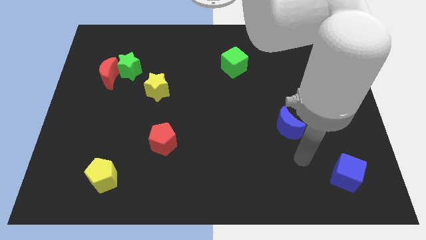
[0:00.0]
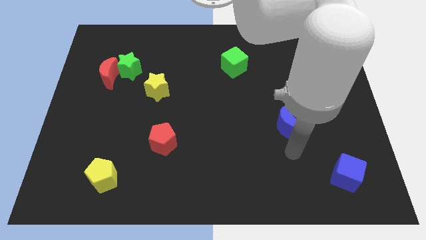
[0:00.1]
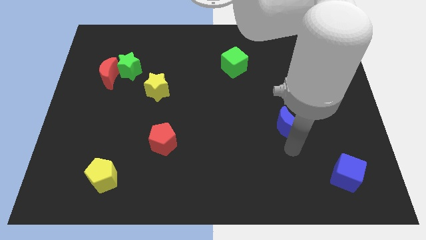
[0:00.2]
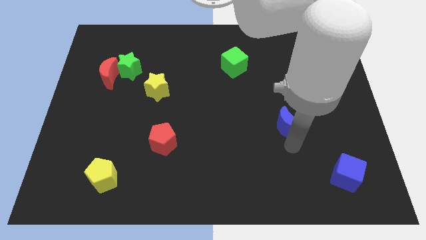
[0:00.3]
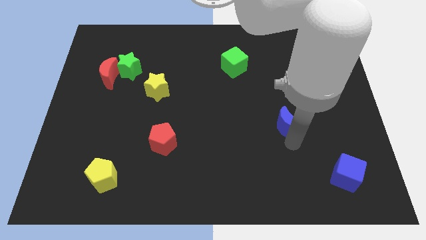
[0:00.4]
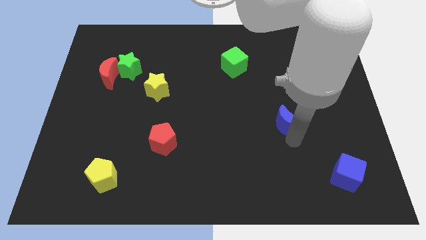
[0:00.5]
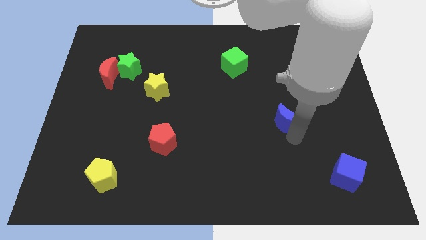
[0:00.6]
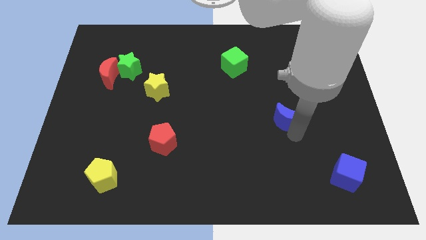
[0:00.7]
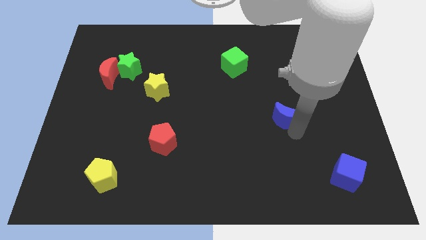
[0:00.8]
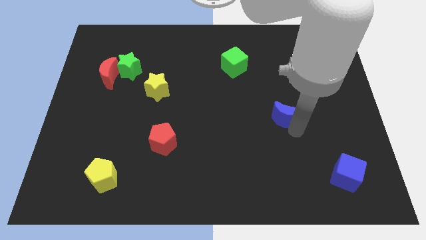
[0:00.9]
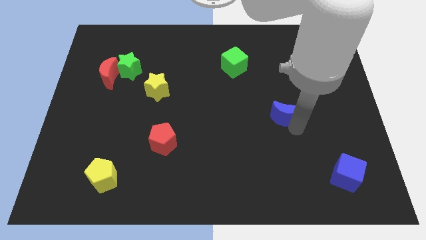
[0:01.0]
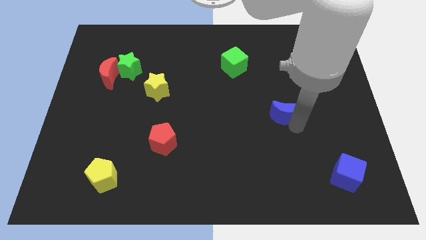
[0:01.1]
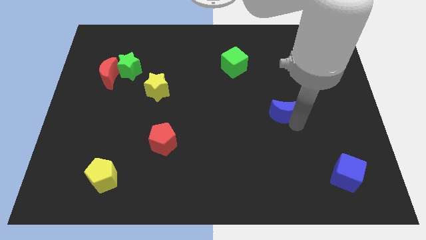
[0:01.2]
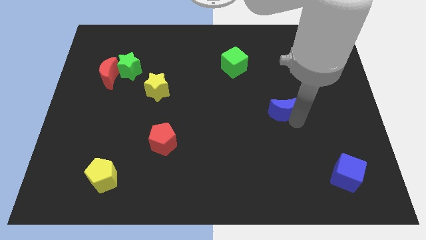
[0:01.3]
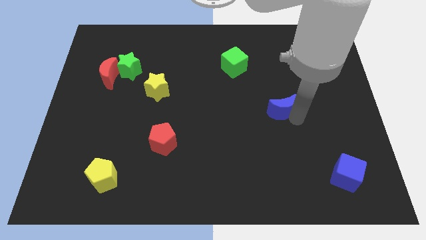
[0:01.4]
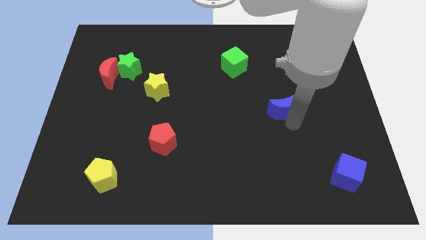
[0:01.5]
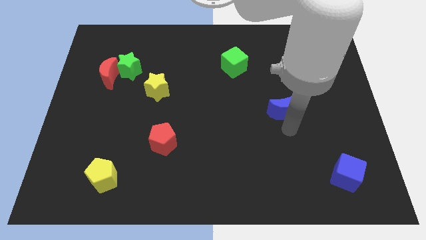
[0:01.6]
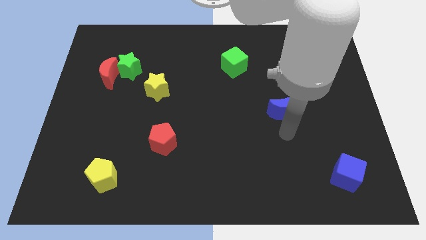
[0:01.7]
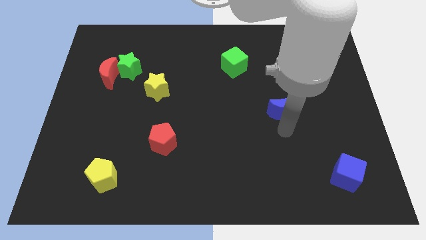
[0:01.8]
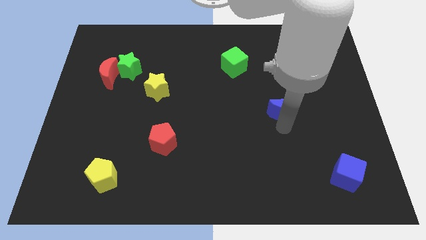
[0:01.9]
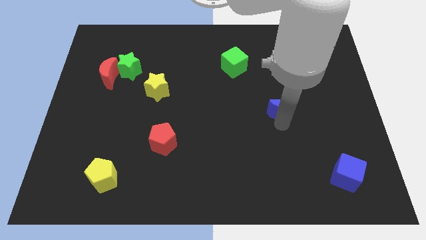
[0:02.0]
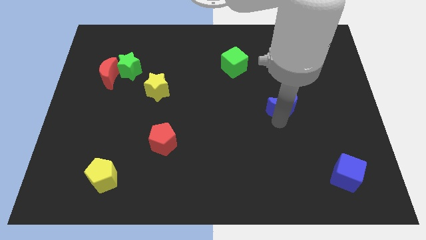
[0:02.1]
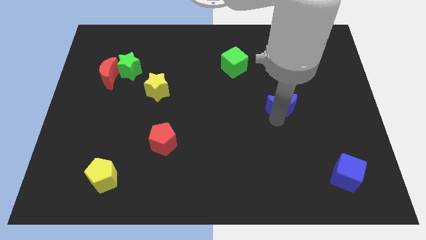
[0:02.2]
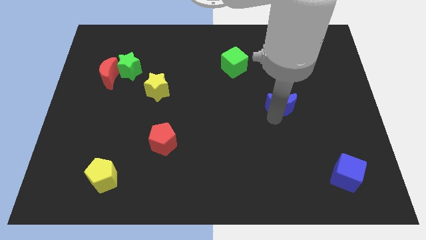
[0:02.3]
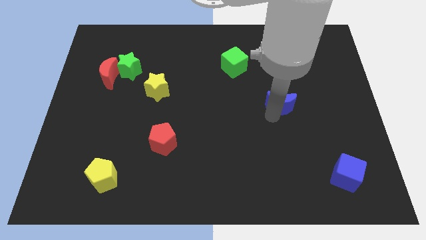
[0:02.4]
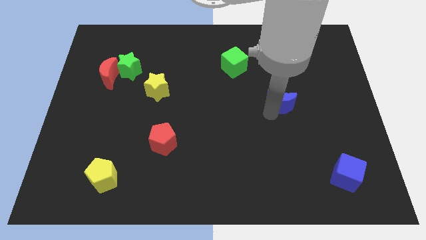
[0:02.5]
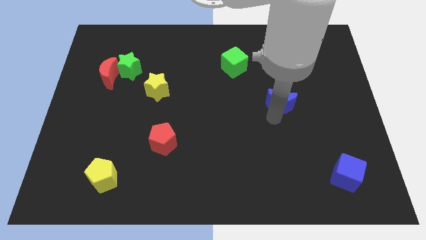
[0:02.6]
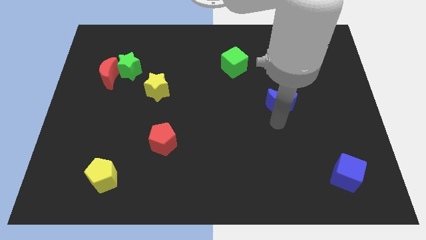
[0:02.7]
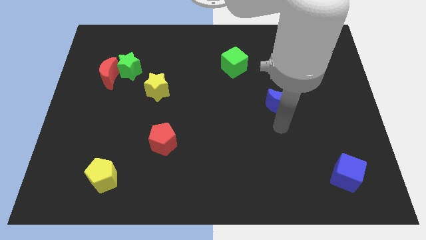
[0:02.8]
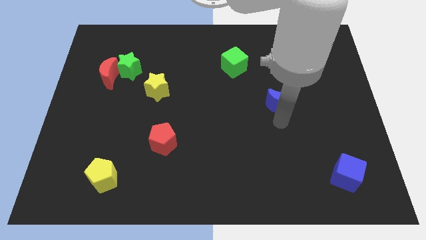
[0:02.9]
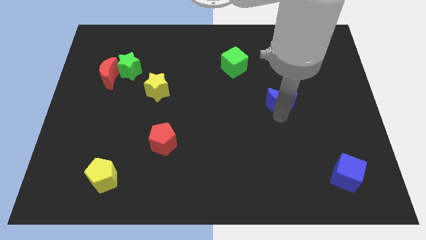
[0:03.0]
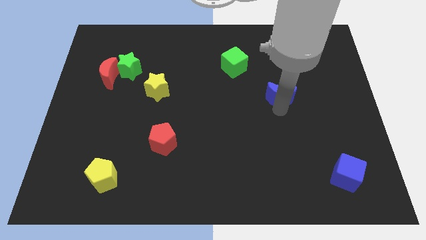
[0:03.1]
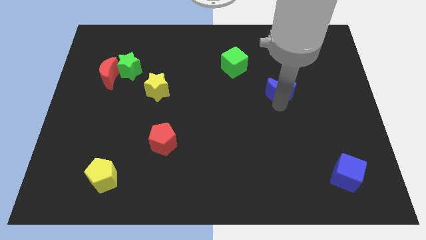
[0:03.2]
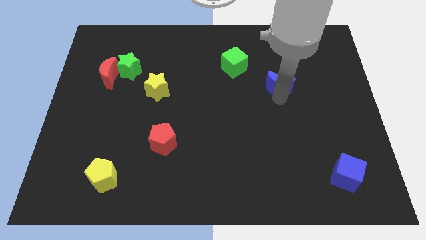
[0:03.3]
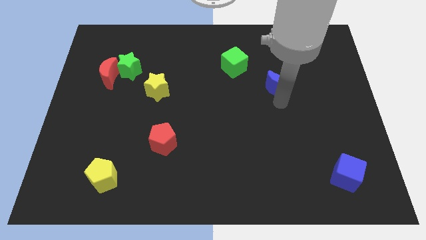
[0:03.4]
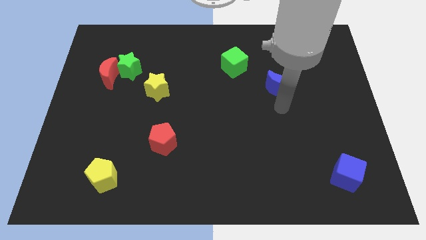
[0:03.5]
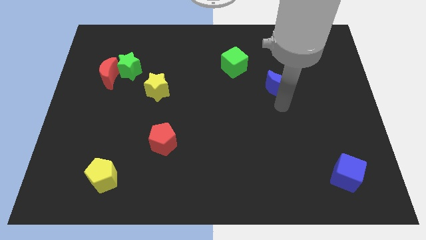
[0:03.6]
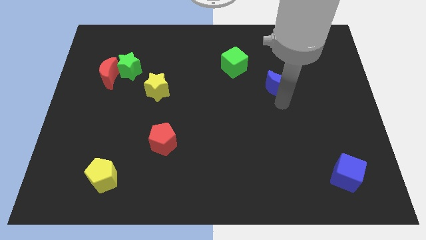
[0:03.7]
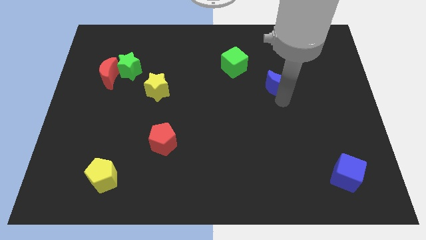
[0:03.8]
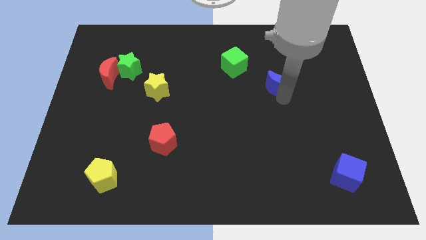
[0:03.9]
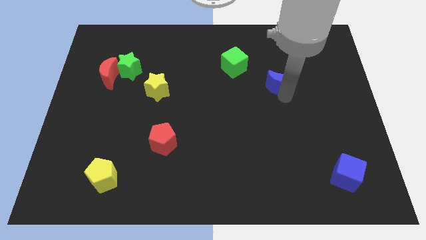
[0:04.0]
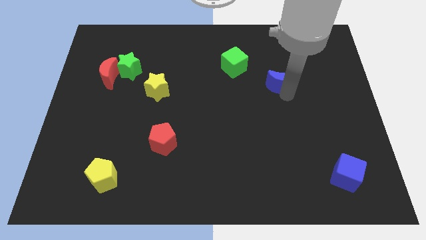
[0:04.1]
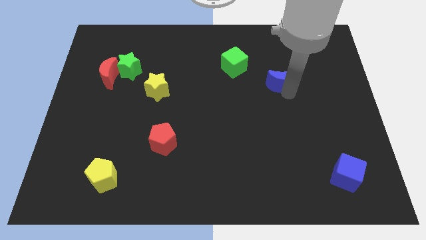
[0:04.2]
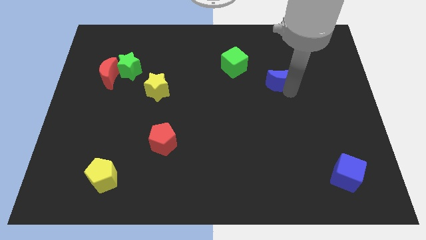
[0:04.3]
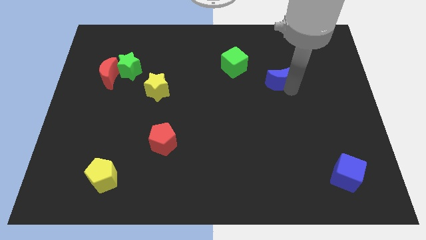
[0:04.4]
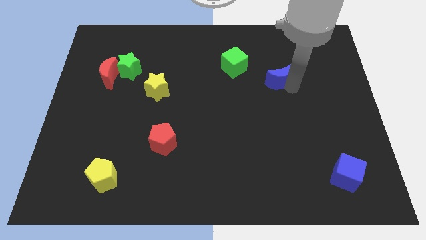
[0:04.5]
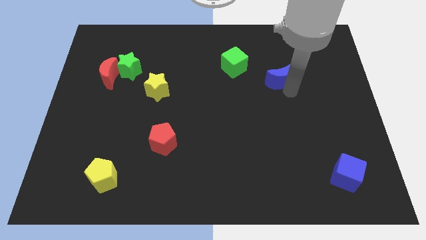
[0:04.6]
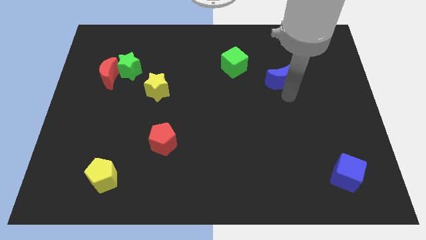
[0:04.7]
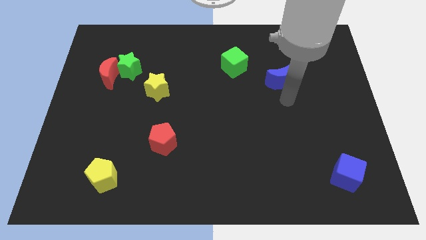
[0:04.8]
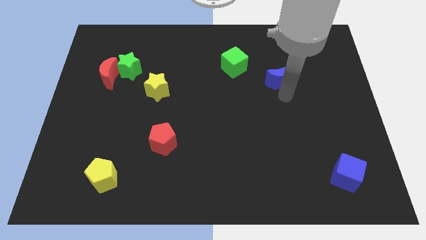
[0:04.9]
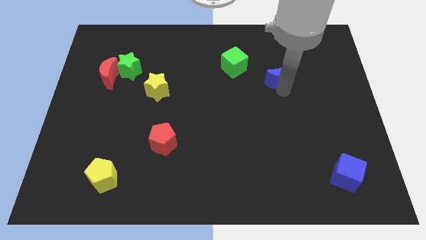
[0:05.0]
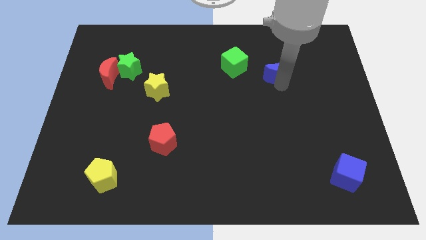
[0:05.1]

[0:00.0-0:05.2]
slide the blue moon just right of the green cube

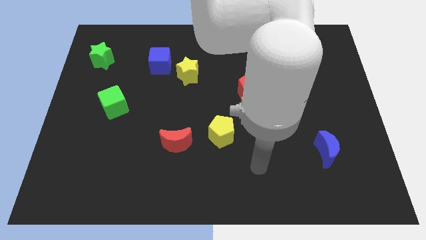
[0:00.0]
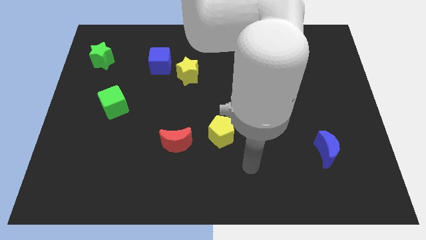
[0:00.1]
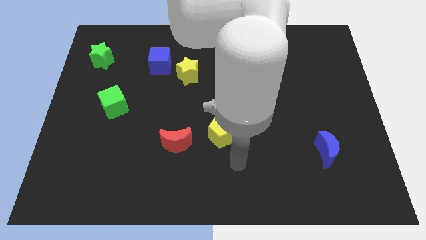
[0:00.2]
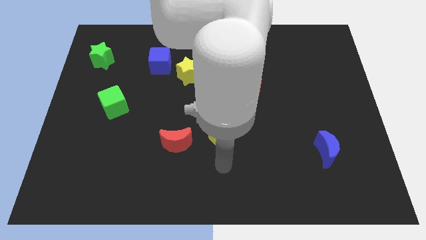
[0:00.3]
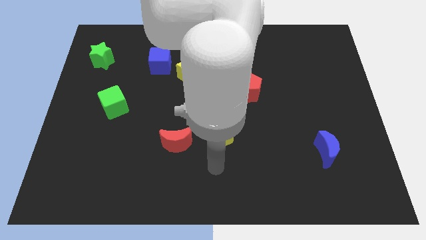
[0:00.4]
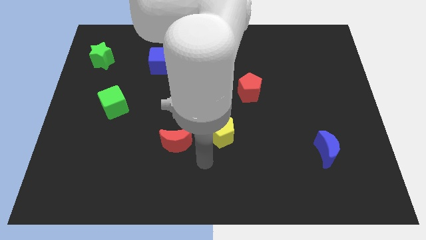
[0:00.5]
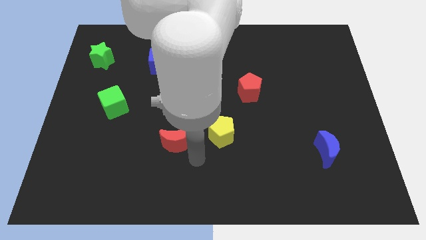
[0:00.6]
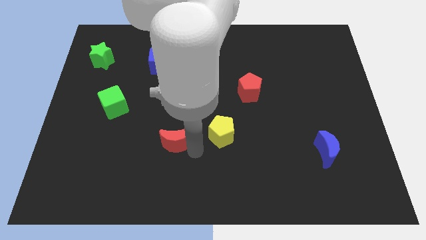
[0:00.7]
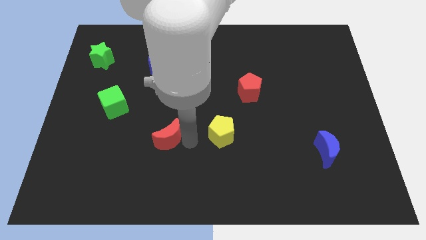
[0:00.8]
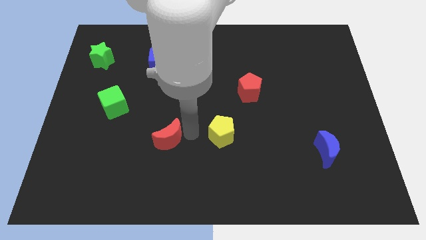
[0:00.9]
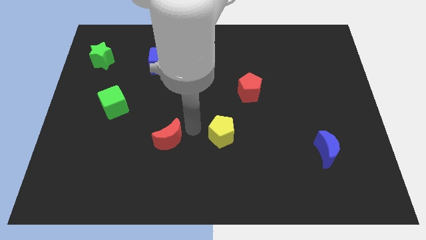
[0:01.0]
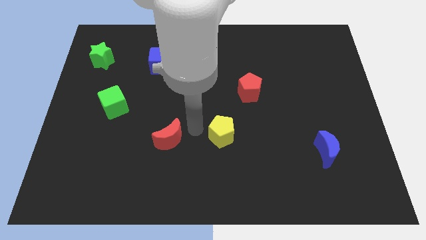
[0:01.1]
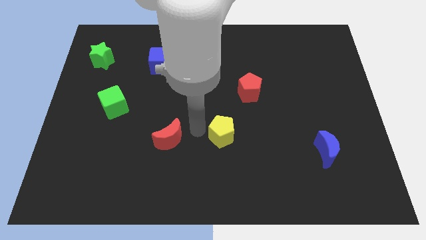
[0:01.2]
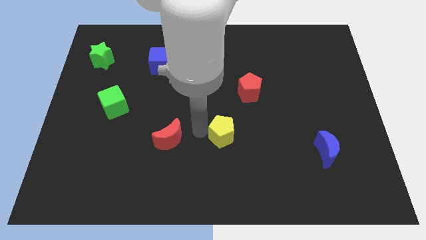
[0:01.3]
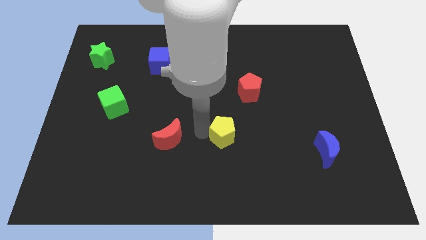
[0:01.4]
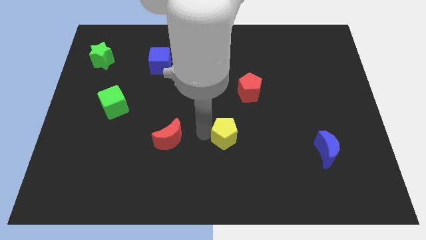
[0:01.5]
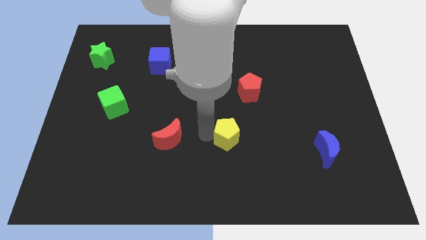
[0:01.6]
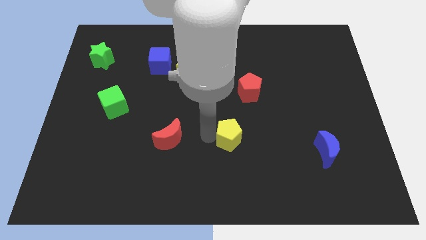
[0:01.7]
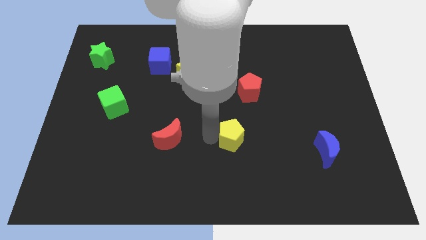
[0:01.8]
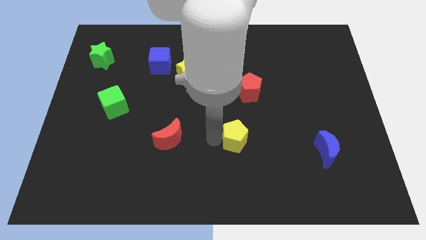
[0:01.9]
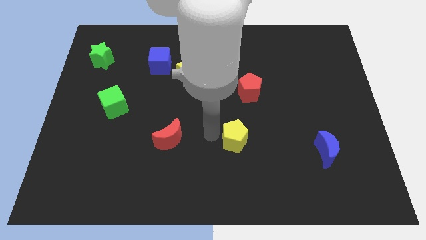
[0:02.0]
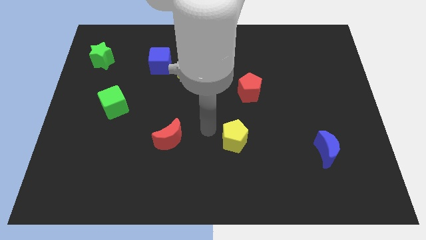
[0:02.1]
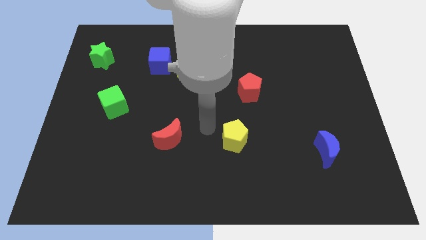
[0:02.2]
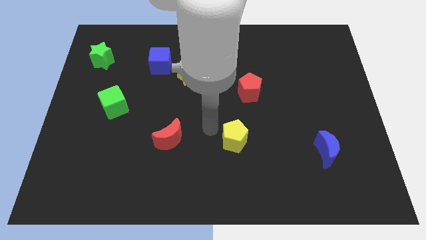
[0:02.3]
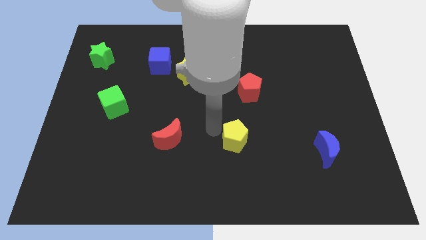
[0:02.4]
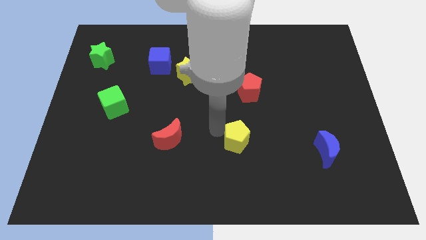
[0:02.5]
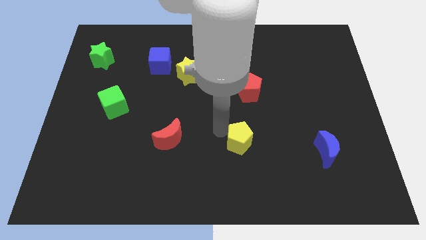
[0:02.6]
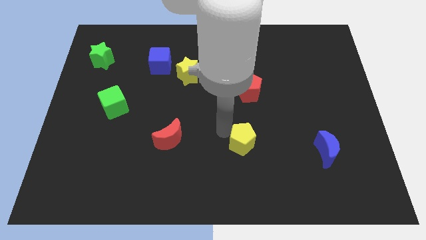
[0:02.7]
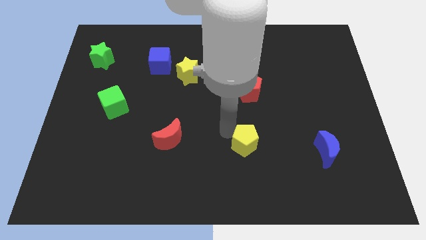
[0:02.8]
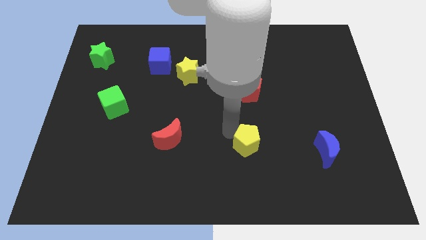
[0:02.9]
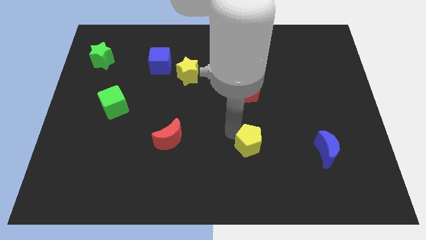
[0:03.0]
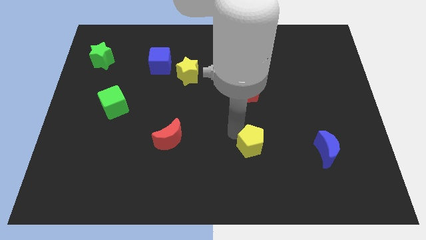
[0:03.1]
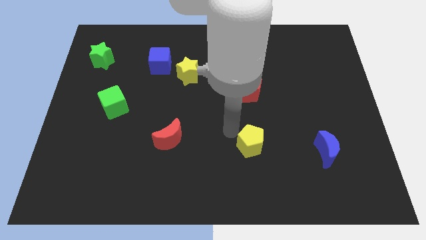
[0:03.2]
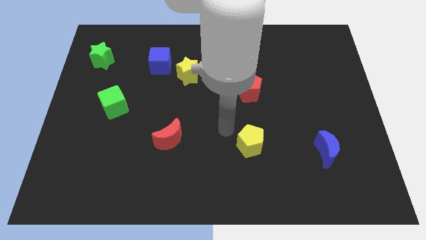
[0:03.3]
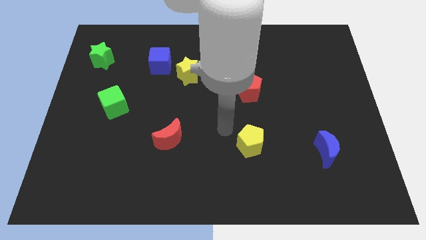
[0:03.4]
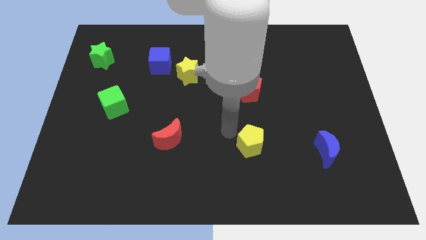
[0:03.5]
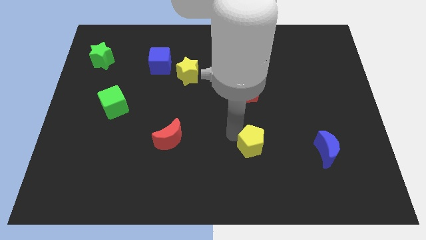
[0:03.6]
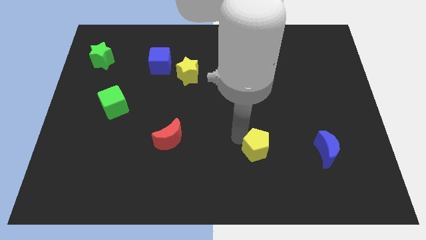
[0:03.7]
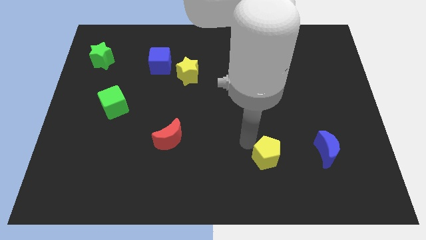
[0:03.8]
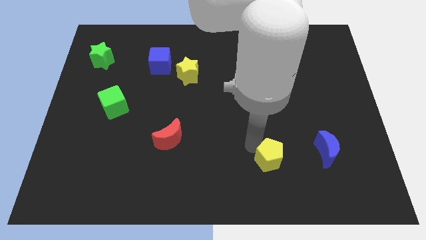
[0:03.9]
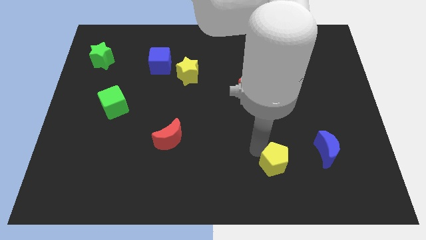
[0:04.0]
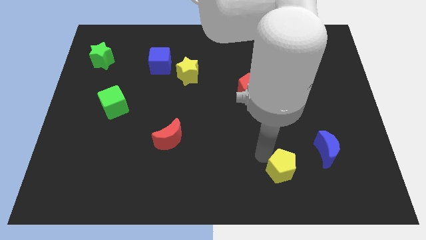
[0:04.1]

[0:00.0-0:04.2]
slide the yellow pentagon to the bottom left of the blue moon
